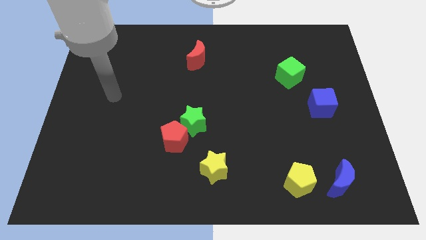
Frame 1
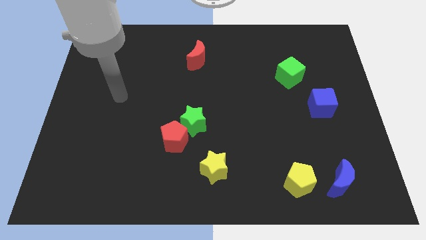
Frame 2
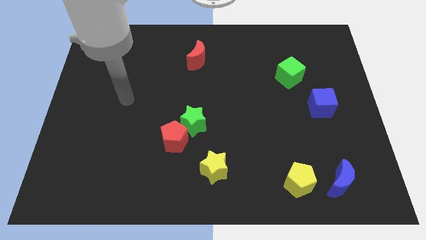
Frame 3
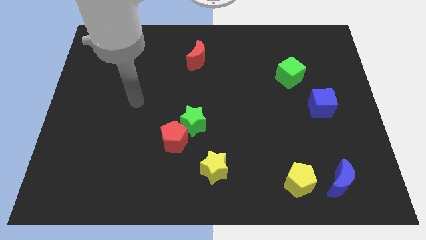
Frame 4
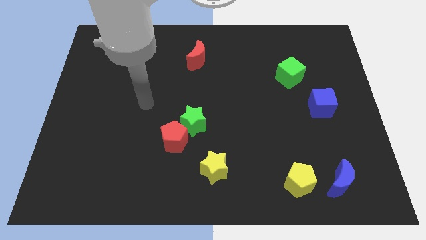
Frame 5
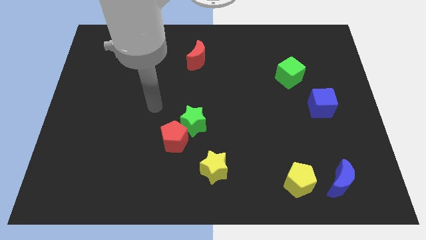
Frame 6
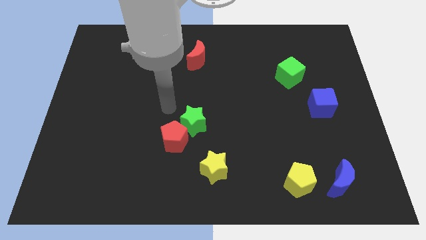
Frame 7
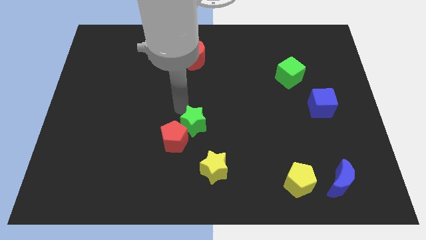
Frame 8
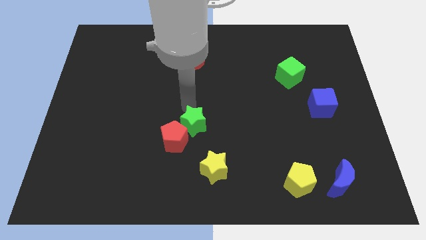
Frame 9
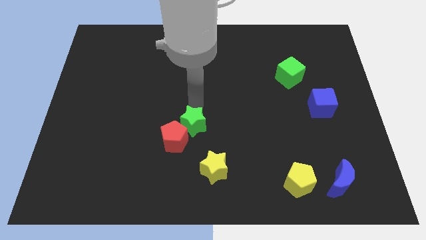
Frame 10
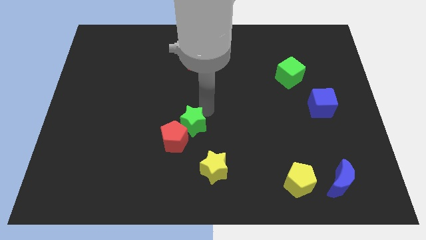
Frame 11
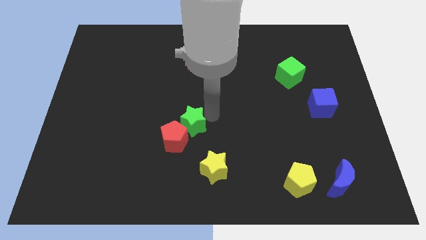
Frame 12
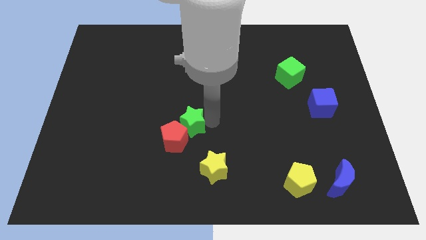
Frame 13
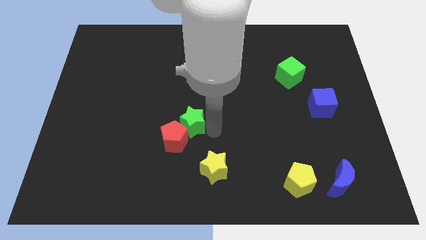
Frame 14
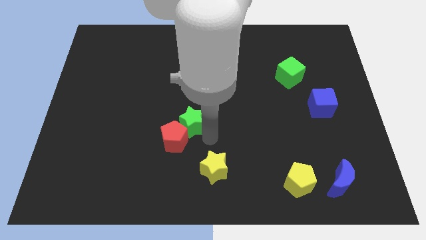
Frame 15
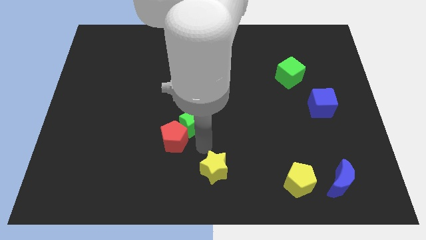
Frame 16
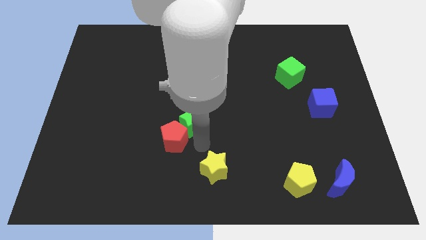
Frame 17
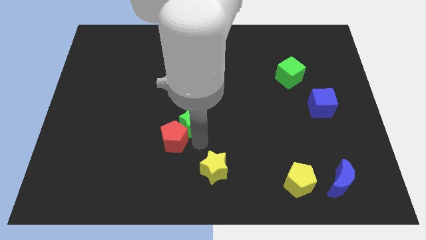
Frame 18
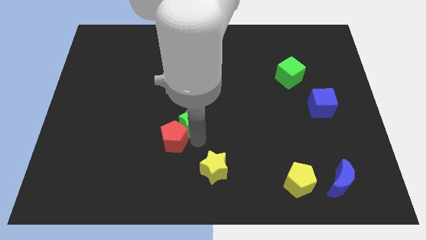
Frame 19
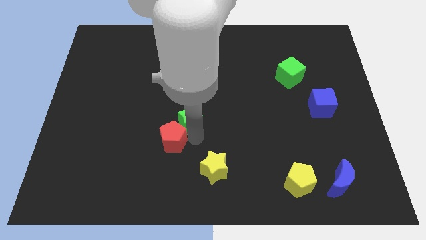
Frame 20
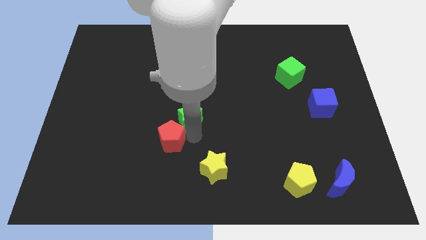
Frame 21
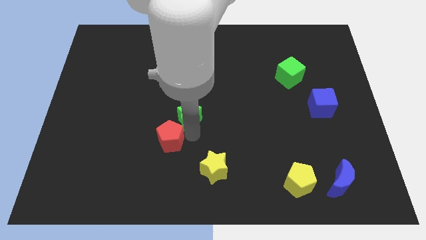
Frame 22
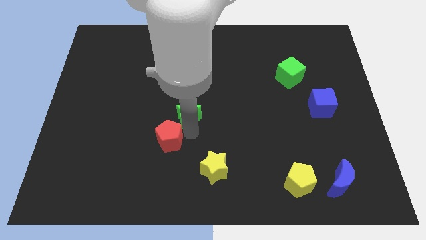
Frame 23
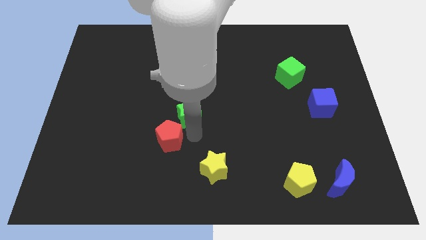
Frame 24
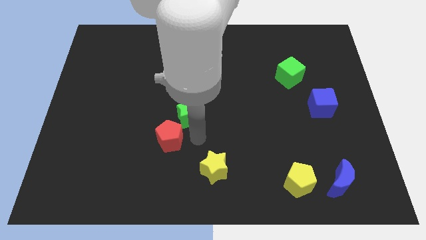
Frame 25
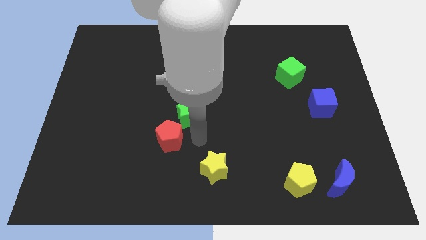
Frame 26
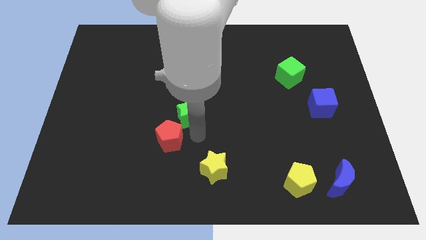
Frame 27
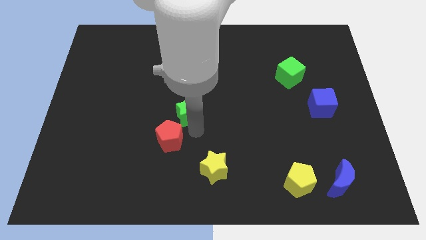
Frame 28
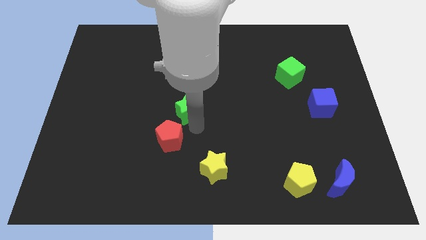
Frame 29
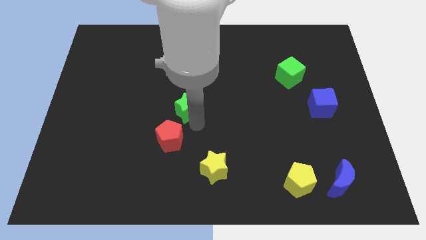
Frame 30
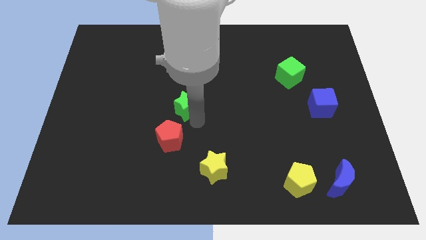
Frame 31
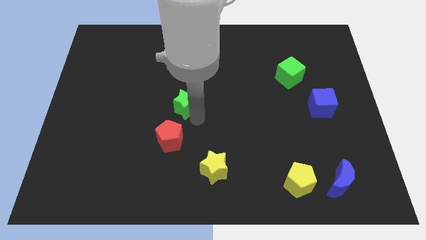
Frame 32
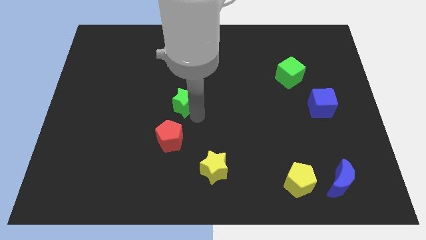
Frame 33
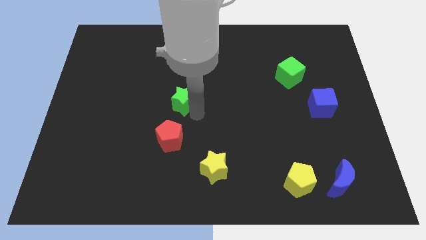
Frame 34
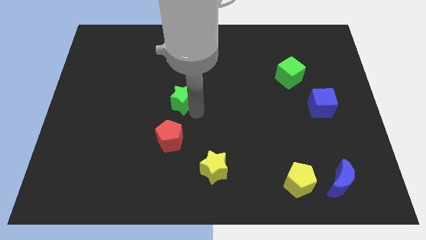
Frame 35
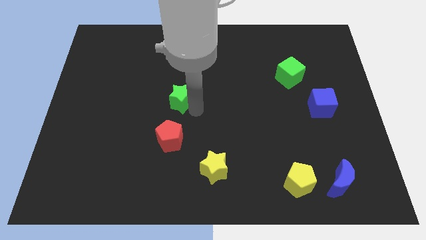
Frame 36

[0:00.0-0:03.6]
slightly move the green star diagonally upwards and to the left

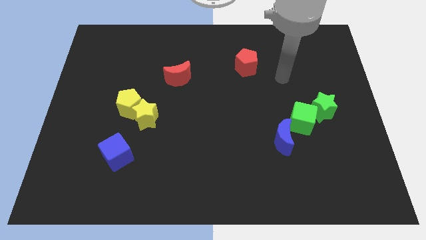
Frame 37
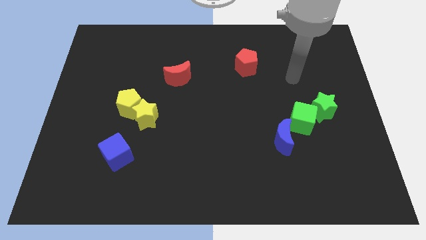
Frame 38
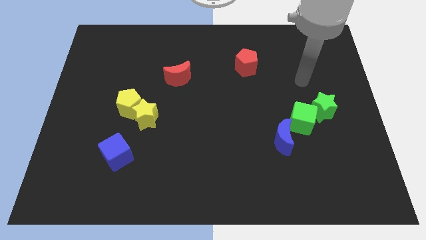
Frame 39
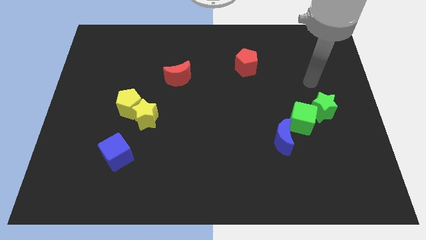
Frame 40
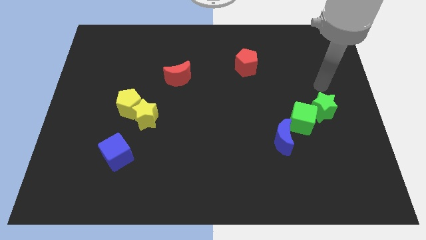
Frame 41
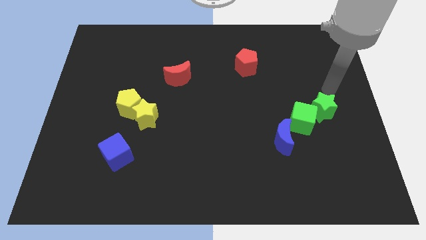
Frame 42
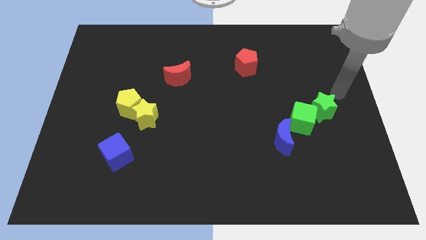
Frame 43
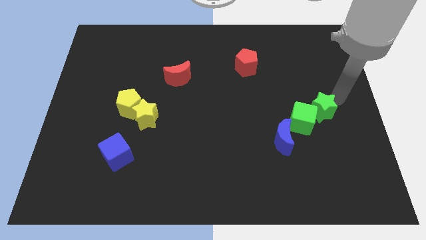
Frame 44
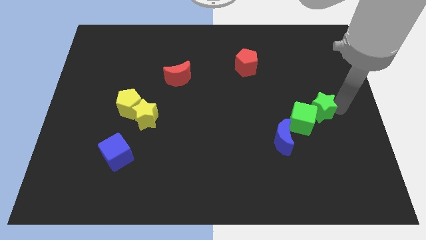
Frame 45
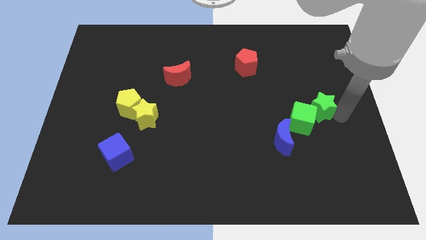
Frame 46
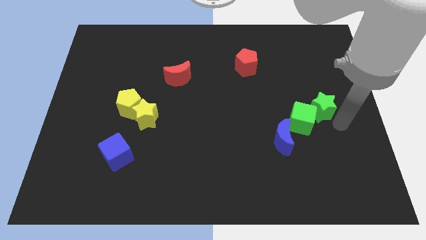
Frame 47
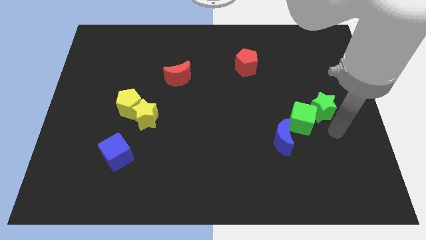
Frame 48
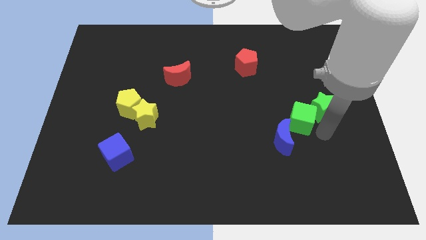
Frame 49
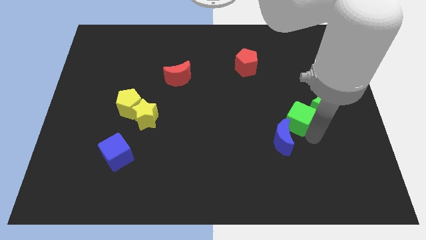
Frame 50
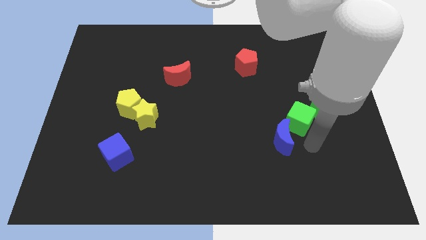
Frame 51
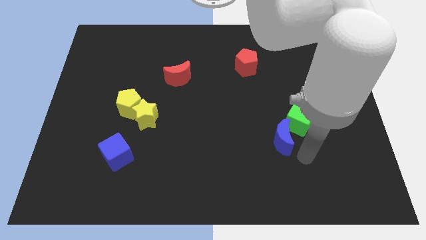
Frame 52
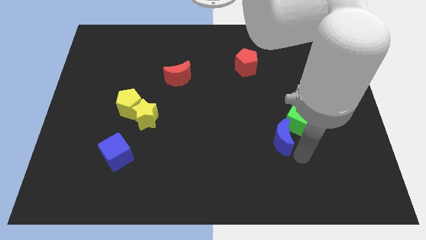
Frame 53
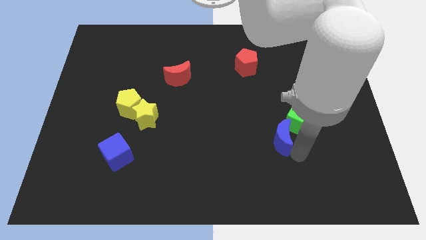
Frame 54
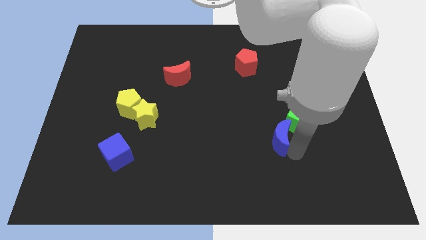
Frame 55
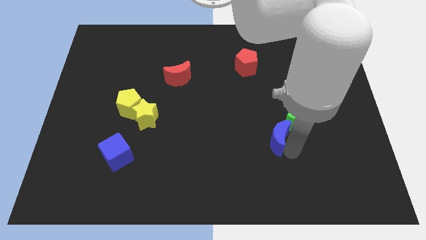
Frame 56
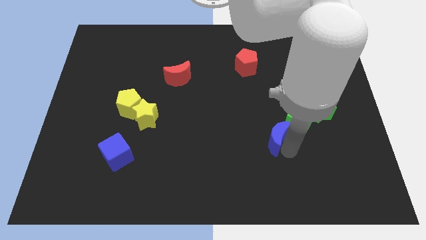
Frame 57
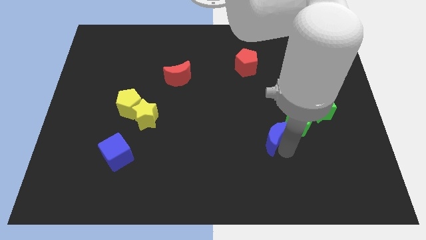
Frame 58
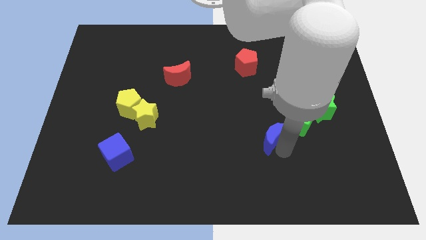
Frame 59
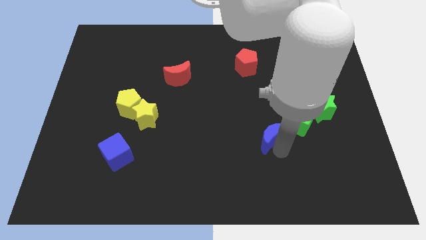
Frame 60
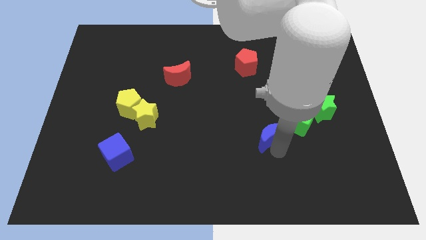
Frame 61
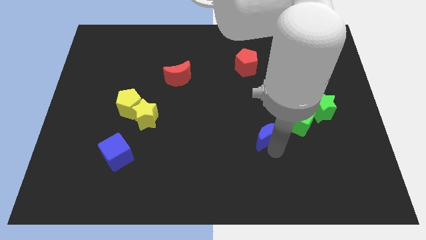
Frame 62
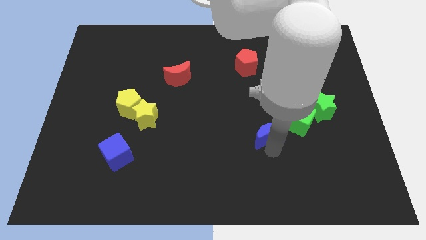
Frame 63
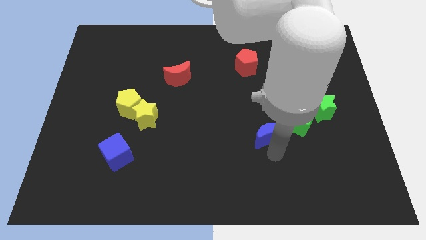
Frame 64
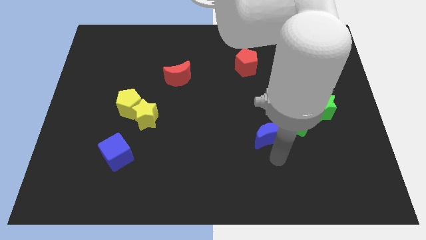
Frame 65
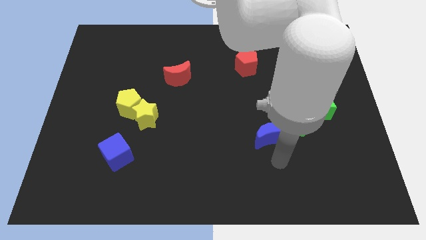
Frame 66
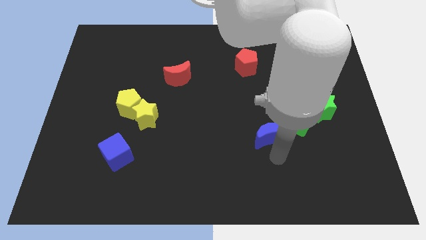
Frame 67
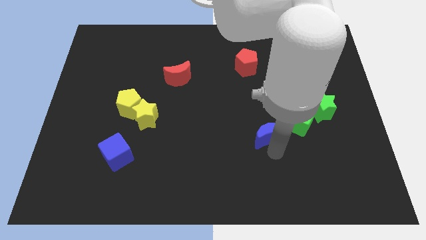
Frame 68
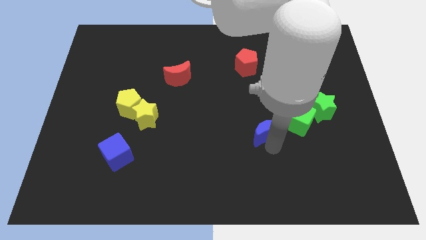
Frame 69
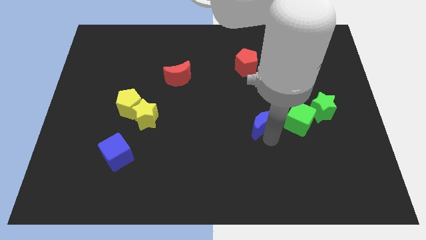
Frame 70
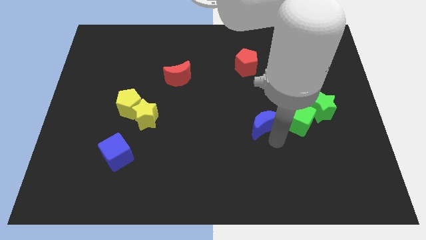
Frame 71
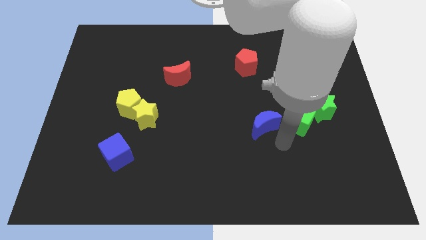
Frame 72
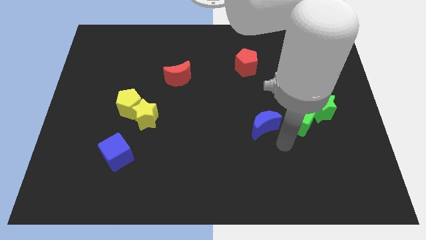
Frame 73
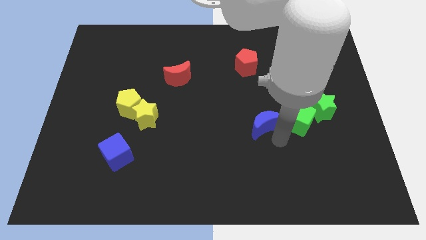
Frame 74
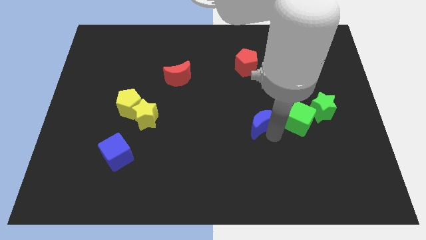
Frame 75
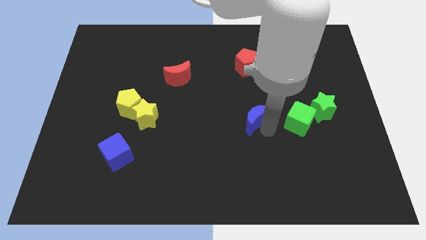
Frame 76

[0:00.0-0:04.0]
slightly push the blue moon up and to the left

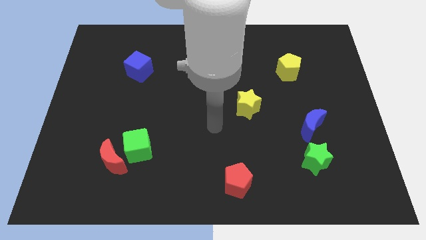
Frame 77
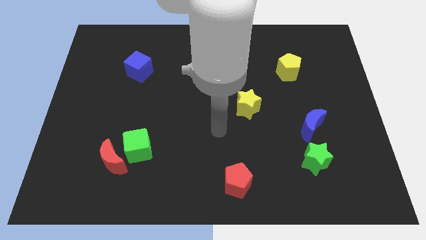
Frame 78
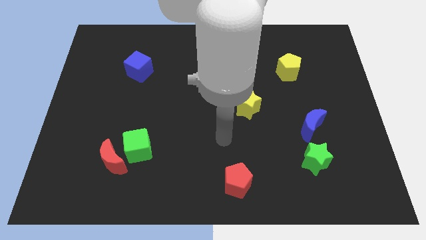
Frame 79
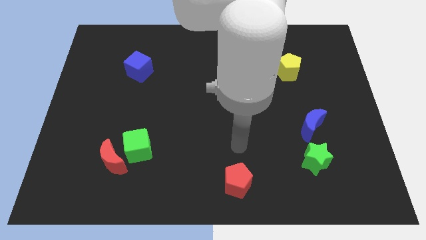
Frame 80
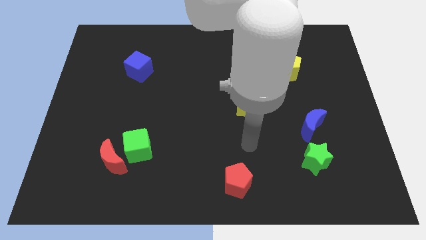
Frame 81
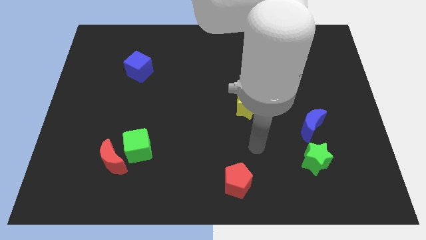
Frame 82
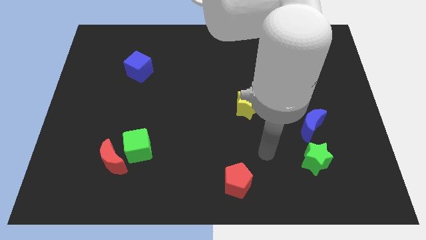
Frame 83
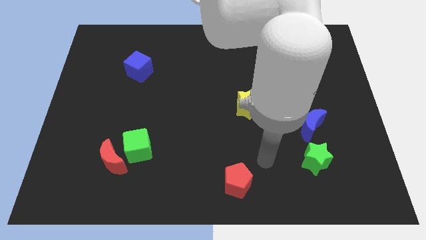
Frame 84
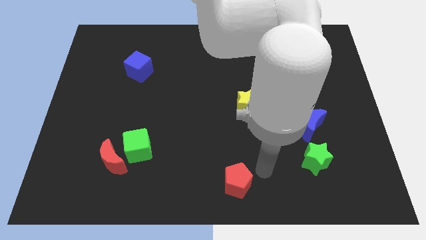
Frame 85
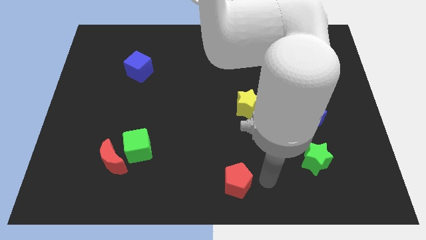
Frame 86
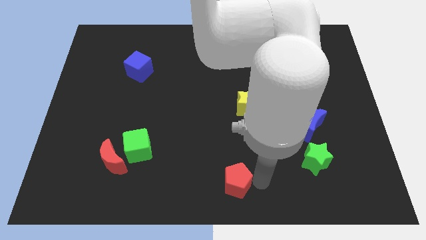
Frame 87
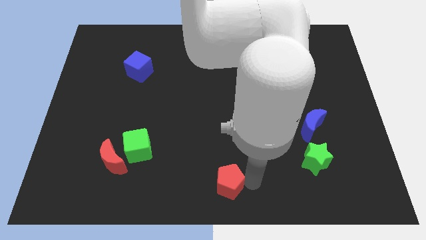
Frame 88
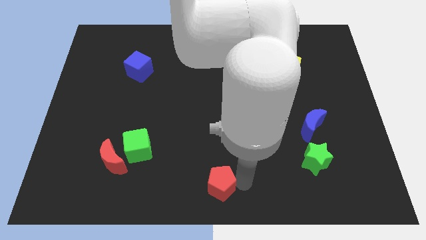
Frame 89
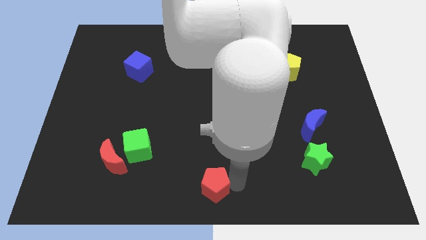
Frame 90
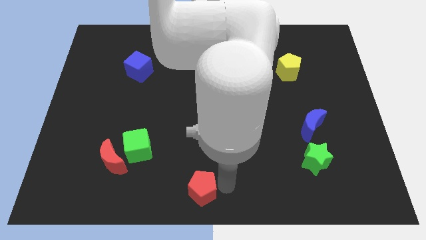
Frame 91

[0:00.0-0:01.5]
push the red pentagon left a little bit
